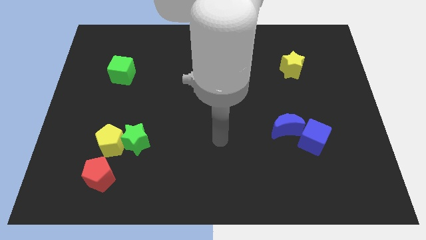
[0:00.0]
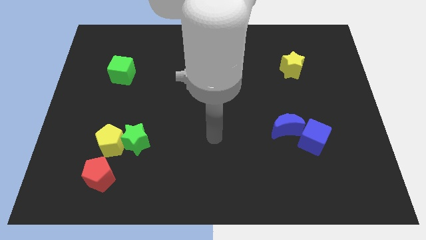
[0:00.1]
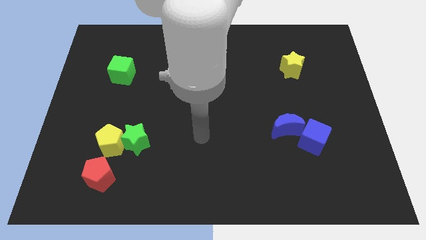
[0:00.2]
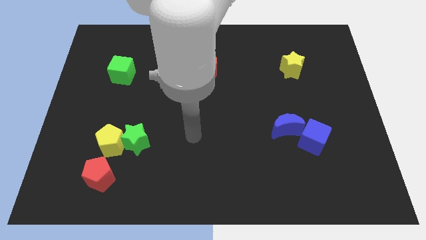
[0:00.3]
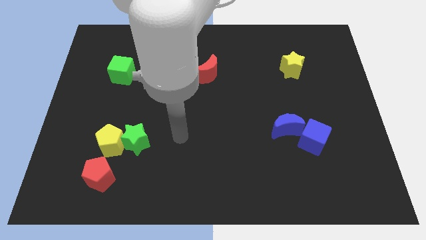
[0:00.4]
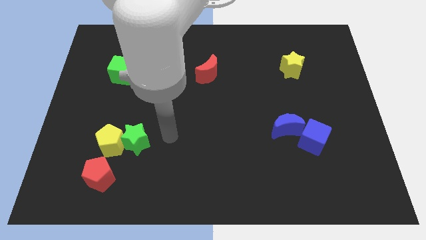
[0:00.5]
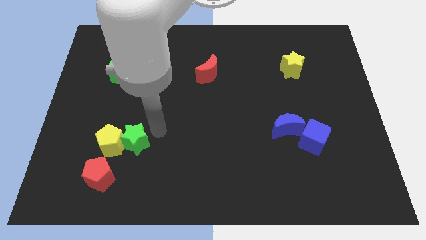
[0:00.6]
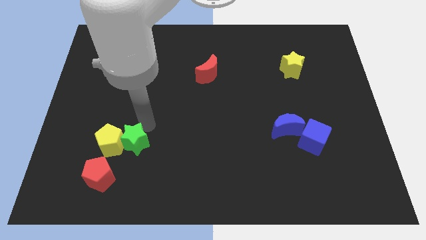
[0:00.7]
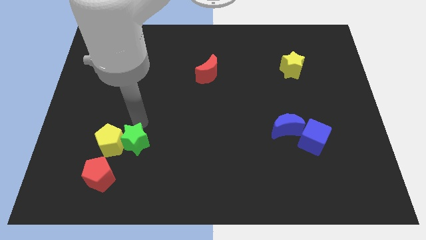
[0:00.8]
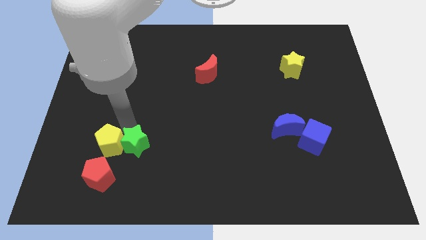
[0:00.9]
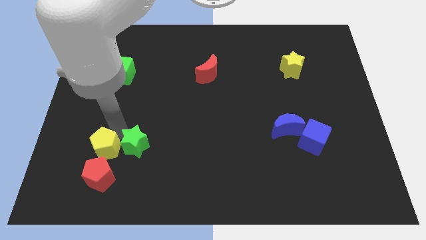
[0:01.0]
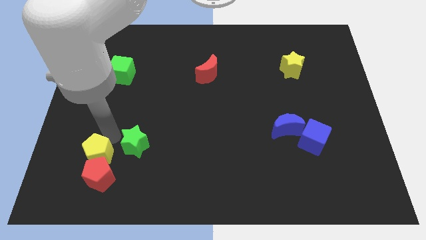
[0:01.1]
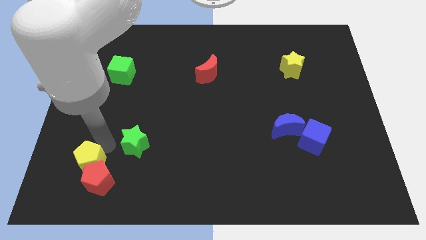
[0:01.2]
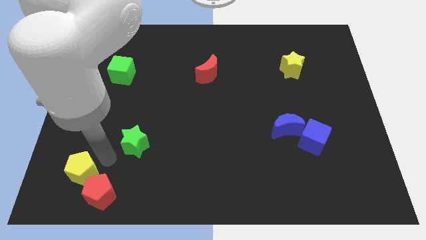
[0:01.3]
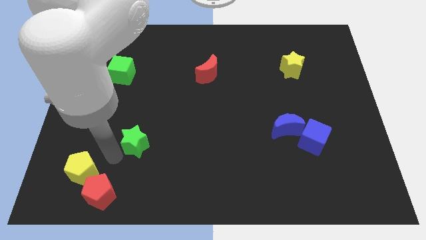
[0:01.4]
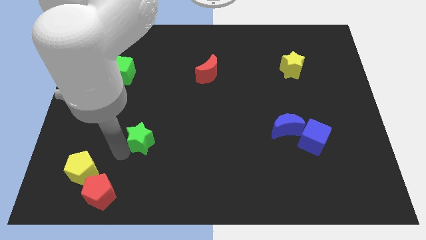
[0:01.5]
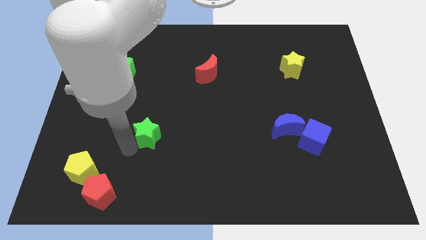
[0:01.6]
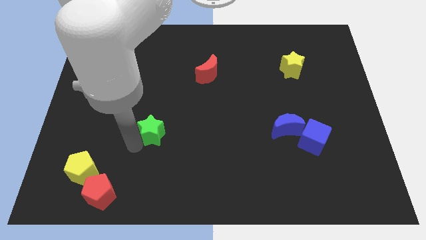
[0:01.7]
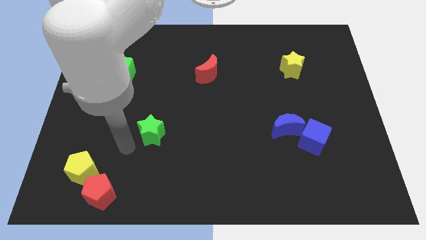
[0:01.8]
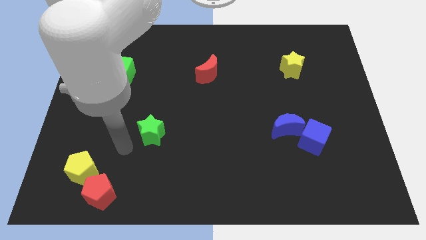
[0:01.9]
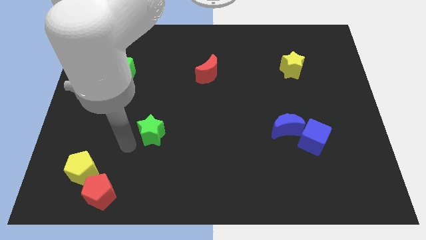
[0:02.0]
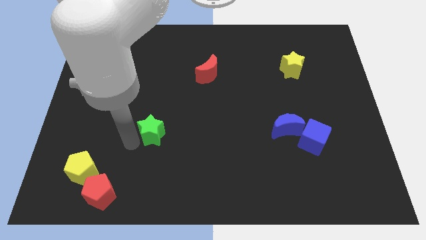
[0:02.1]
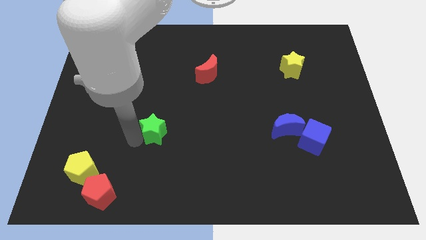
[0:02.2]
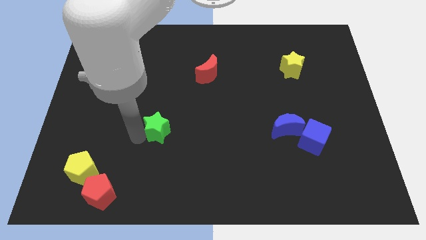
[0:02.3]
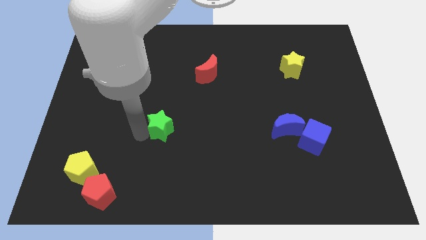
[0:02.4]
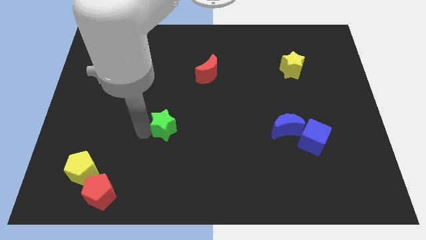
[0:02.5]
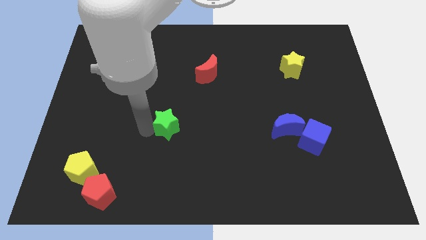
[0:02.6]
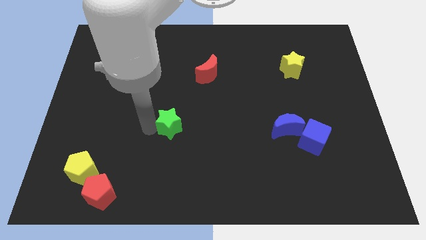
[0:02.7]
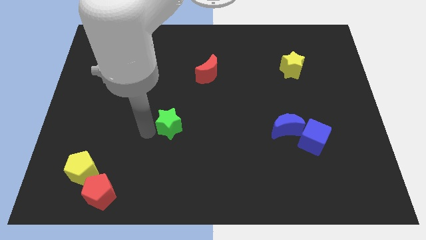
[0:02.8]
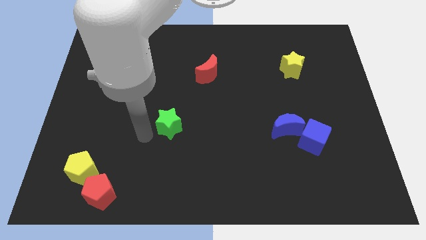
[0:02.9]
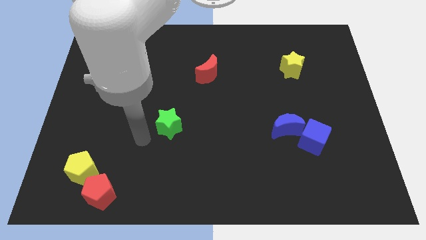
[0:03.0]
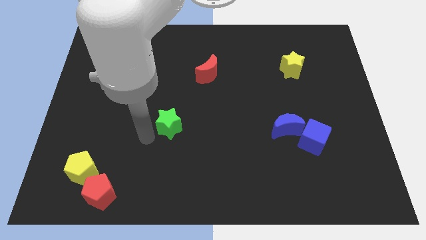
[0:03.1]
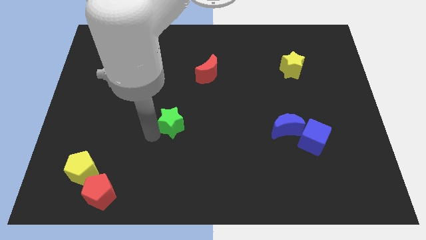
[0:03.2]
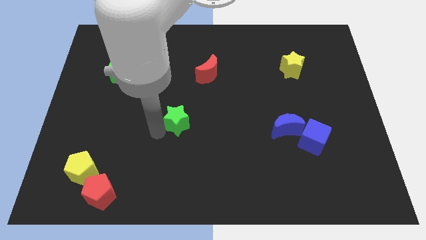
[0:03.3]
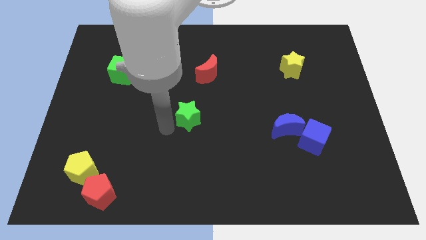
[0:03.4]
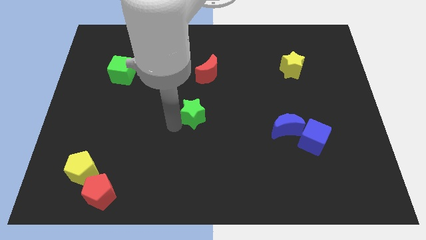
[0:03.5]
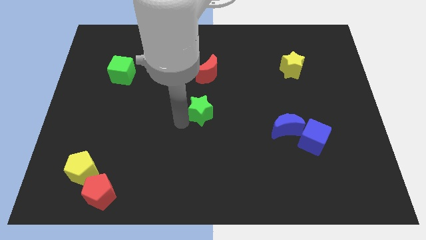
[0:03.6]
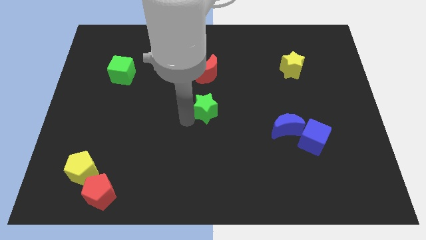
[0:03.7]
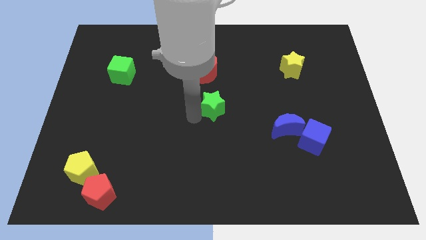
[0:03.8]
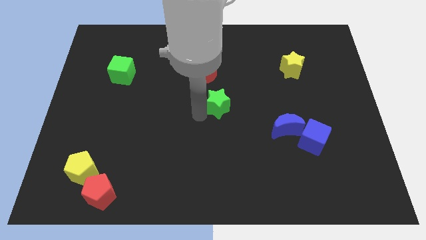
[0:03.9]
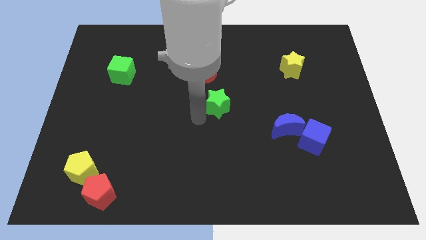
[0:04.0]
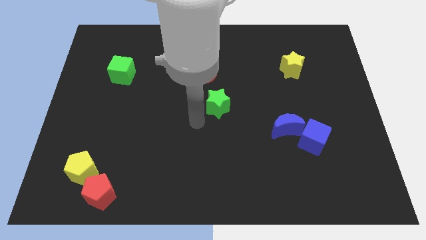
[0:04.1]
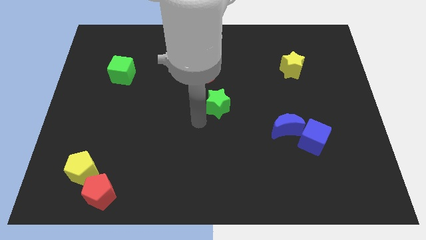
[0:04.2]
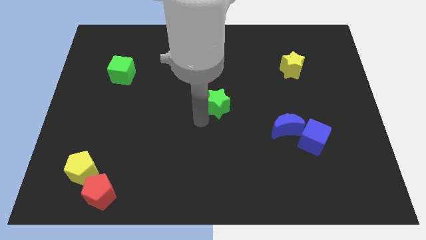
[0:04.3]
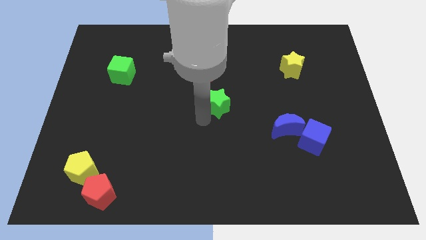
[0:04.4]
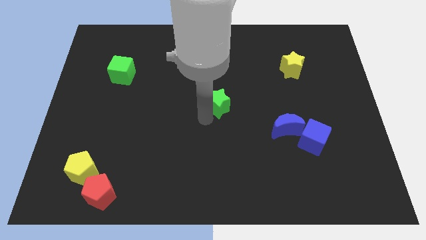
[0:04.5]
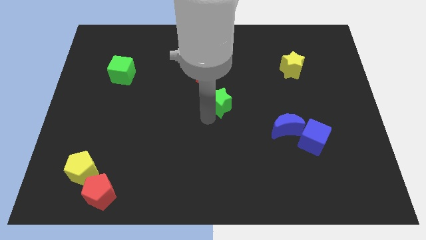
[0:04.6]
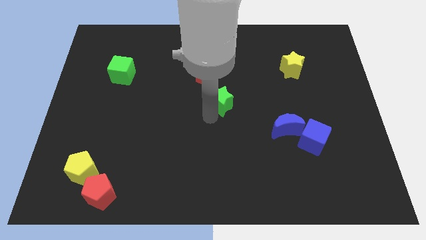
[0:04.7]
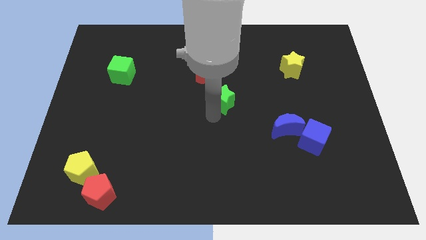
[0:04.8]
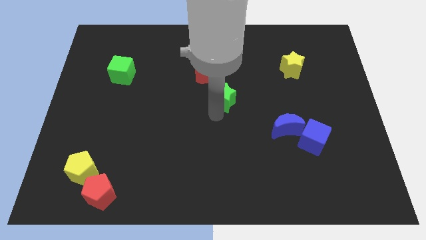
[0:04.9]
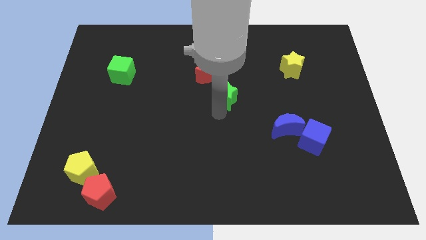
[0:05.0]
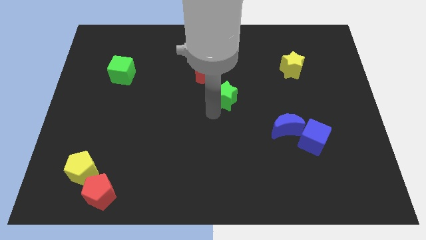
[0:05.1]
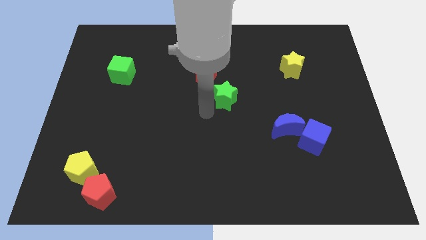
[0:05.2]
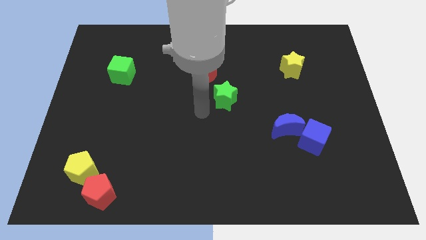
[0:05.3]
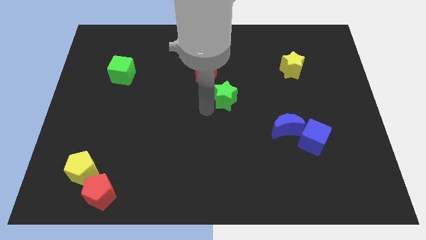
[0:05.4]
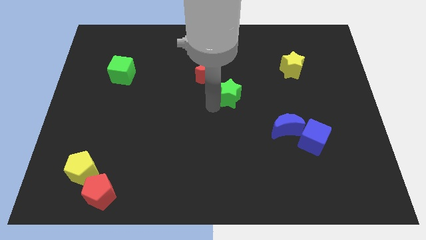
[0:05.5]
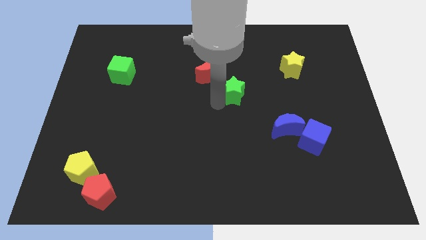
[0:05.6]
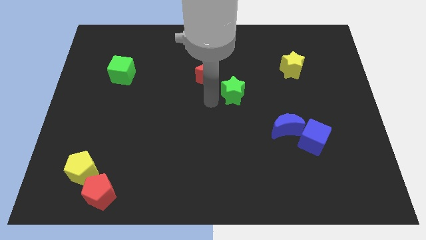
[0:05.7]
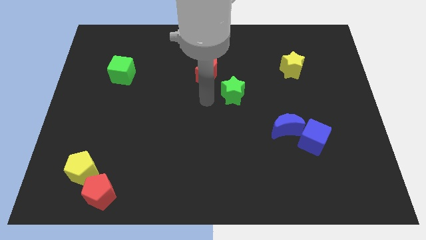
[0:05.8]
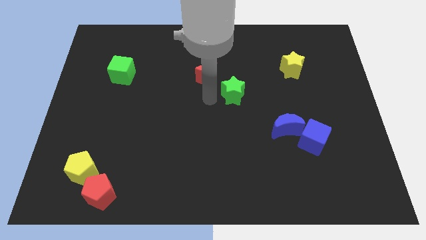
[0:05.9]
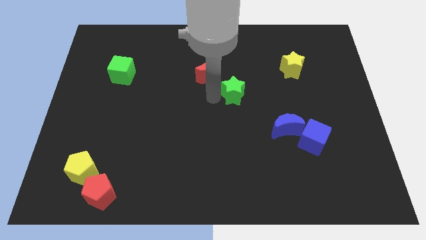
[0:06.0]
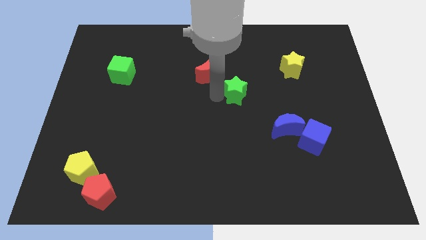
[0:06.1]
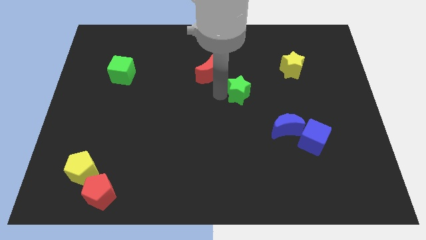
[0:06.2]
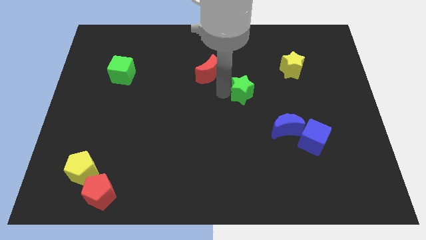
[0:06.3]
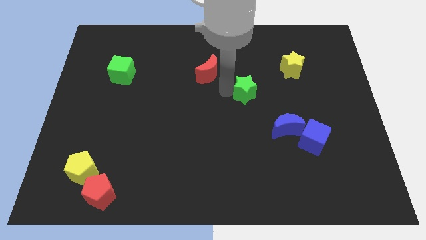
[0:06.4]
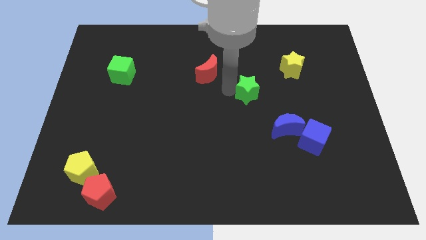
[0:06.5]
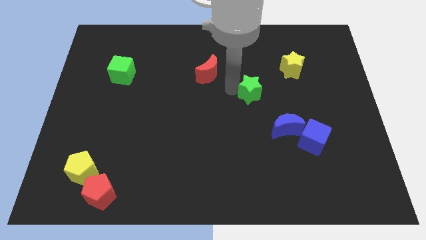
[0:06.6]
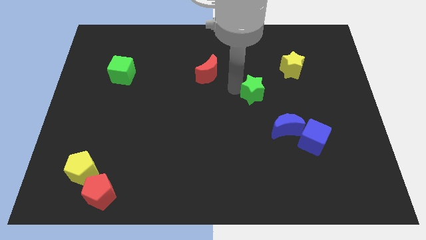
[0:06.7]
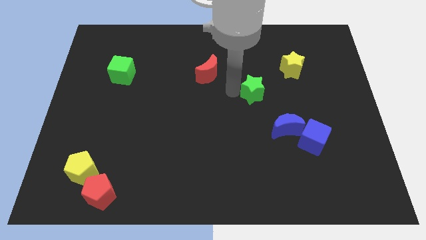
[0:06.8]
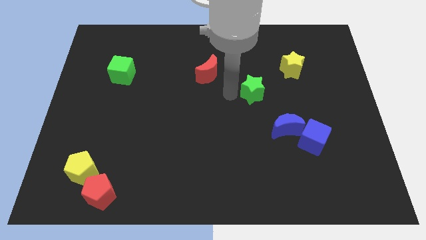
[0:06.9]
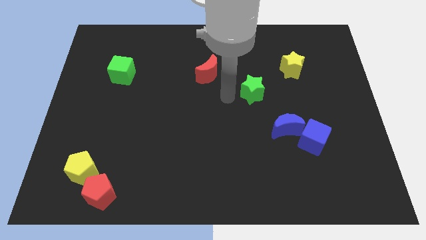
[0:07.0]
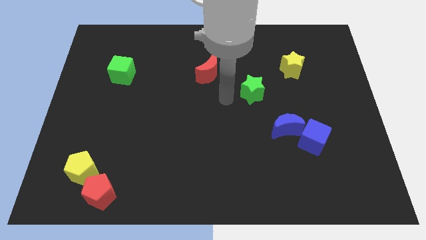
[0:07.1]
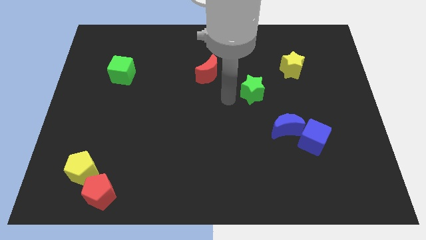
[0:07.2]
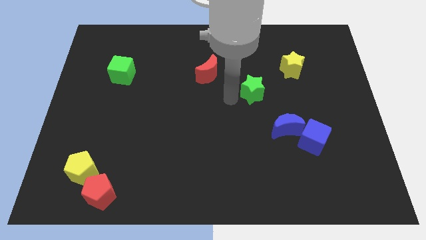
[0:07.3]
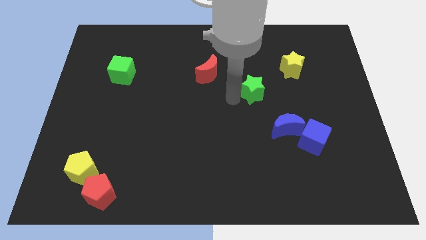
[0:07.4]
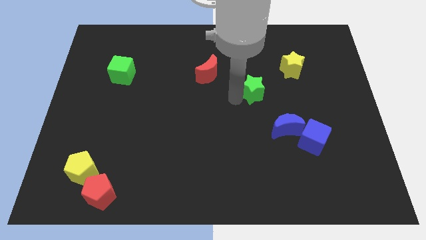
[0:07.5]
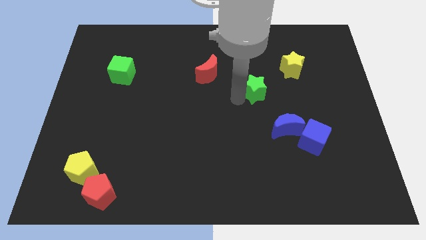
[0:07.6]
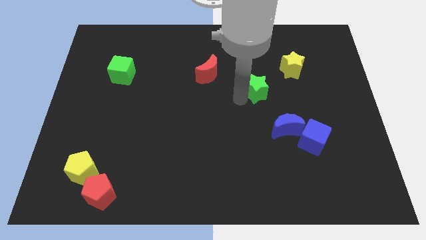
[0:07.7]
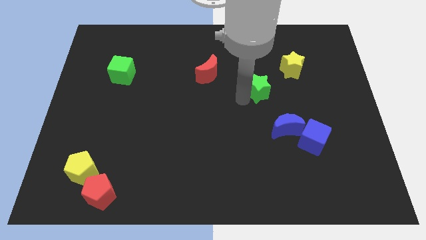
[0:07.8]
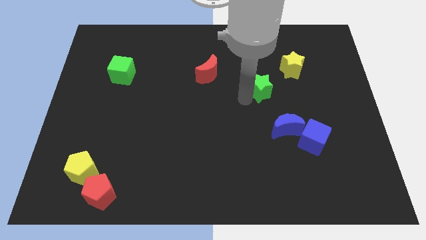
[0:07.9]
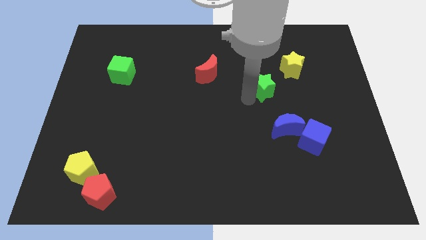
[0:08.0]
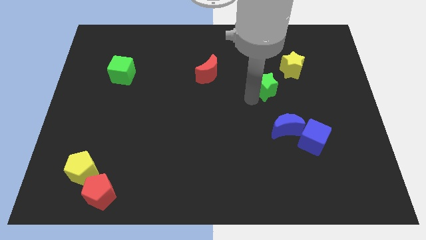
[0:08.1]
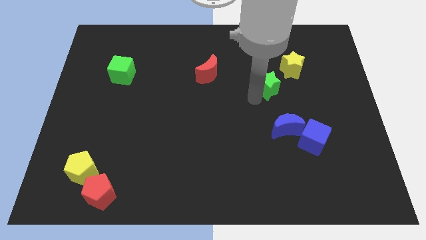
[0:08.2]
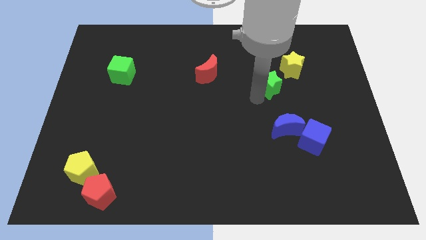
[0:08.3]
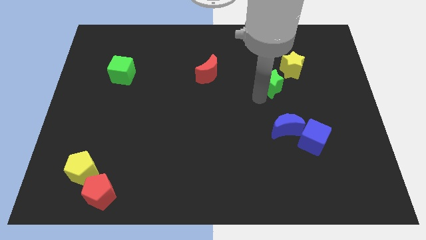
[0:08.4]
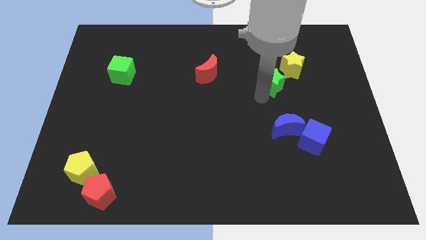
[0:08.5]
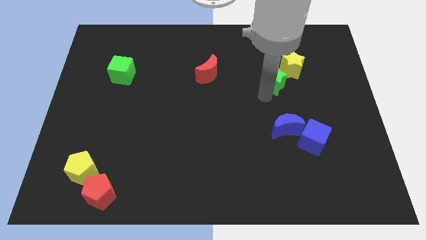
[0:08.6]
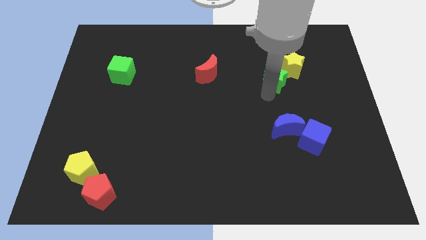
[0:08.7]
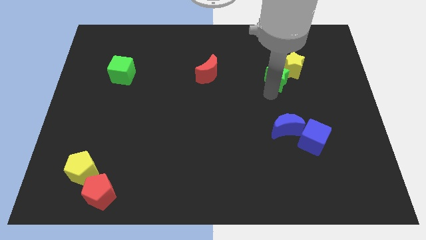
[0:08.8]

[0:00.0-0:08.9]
put the green star close to the yellow star
